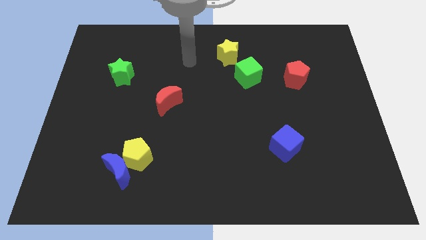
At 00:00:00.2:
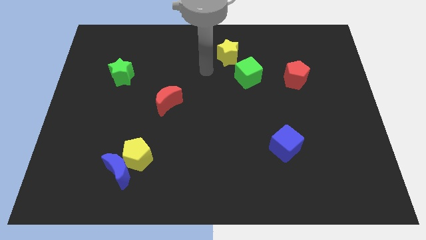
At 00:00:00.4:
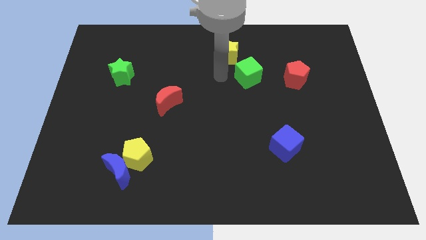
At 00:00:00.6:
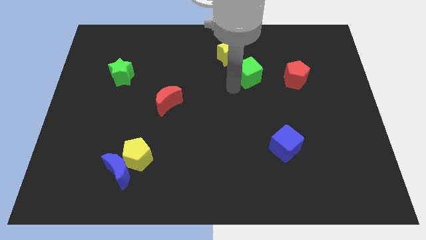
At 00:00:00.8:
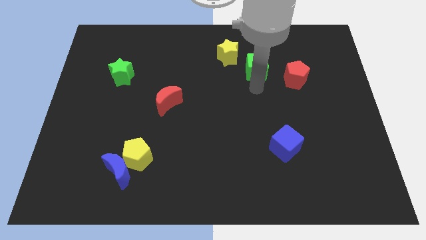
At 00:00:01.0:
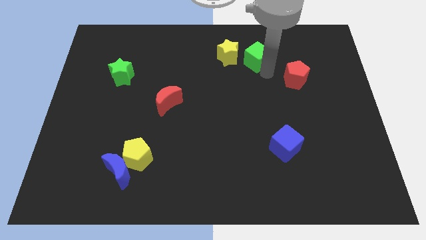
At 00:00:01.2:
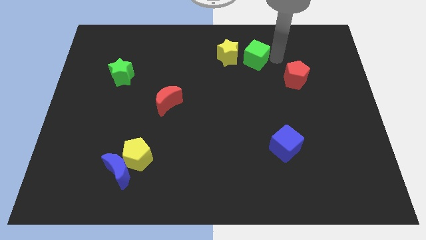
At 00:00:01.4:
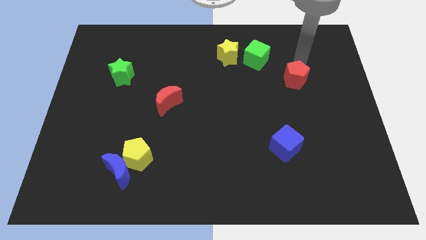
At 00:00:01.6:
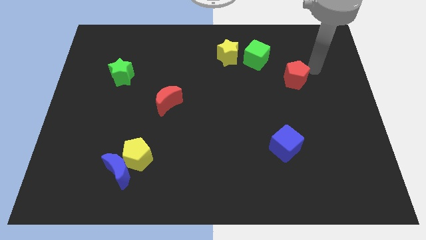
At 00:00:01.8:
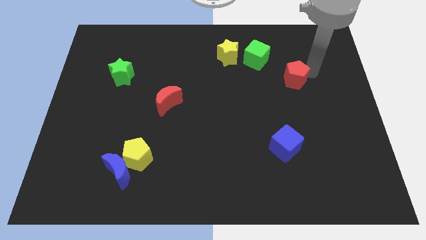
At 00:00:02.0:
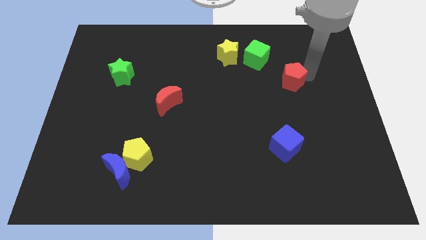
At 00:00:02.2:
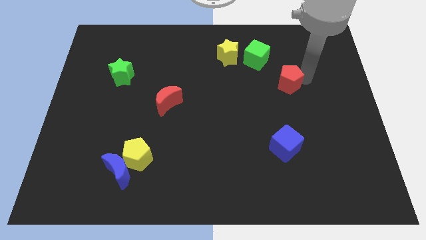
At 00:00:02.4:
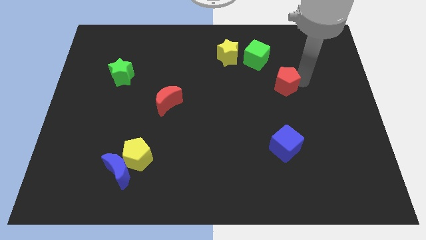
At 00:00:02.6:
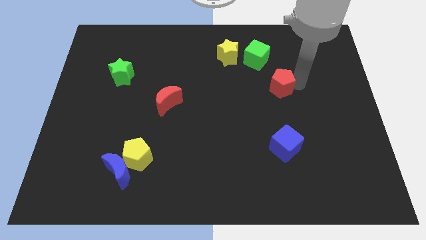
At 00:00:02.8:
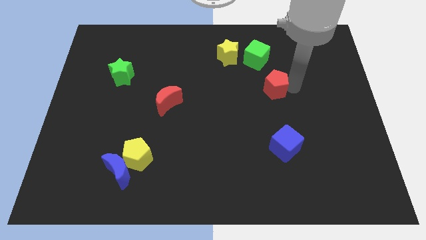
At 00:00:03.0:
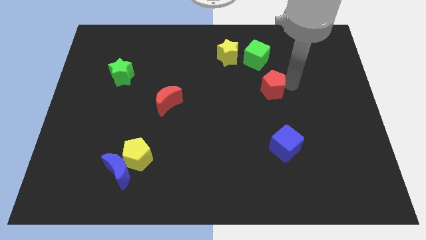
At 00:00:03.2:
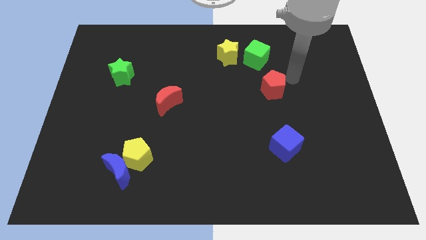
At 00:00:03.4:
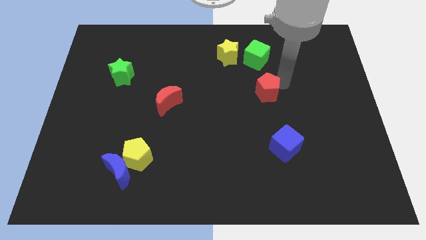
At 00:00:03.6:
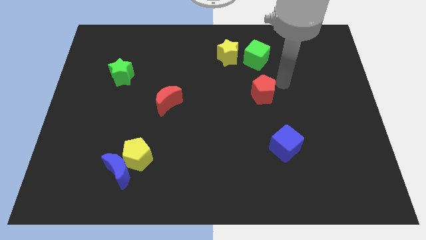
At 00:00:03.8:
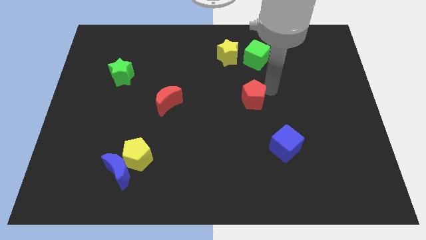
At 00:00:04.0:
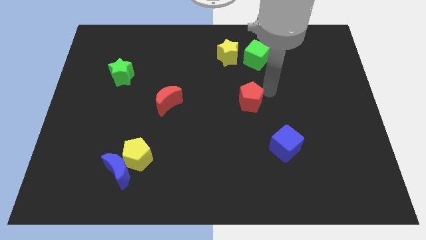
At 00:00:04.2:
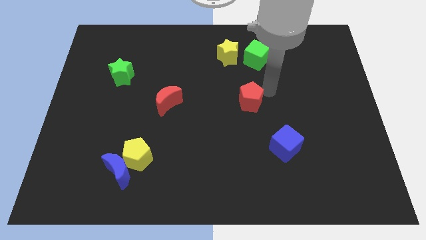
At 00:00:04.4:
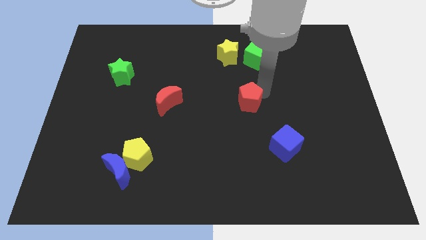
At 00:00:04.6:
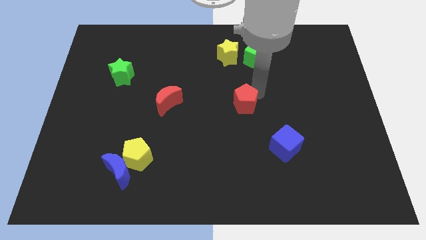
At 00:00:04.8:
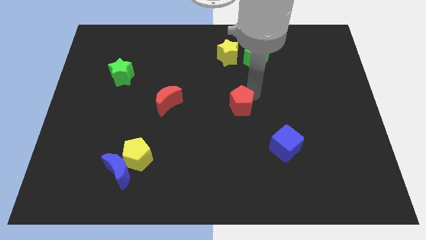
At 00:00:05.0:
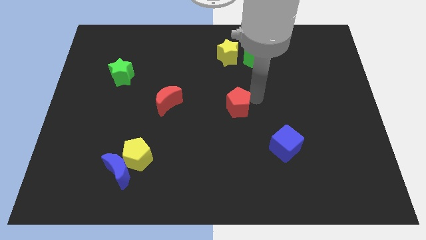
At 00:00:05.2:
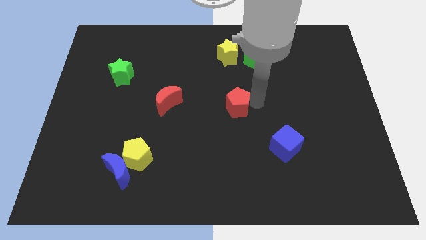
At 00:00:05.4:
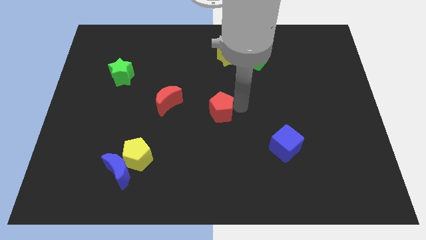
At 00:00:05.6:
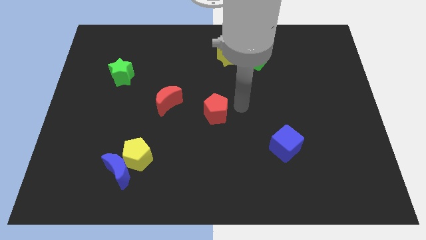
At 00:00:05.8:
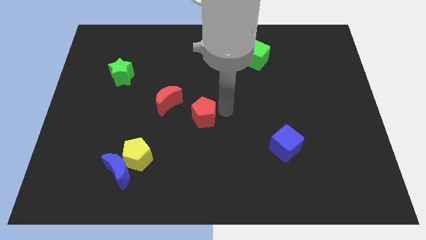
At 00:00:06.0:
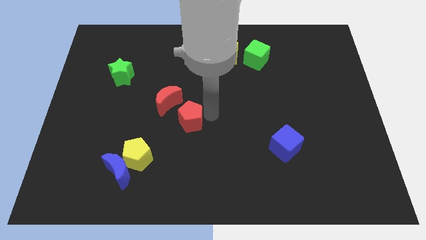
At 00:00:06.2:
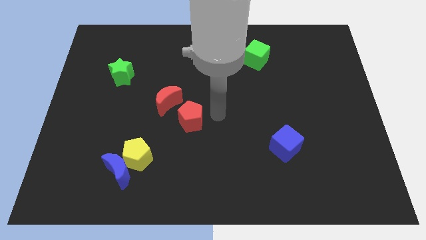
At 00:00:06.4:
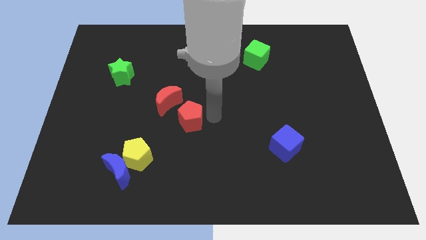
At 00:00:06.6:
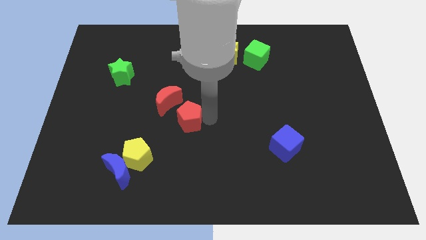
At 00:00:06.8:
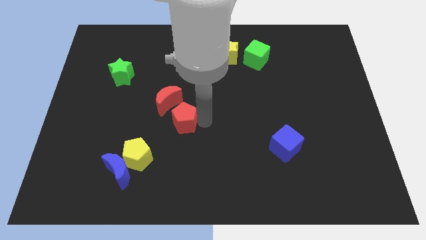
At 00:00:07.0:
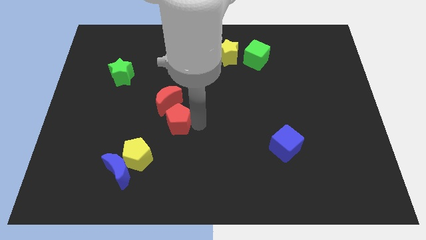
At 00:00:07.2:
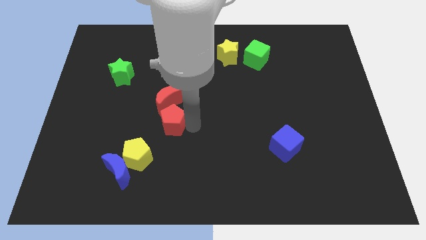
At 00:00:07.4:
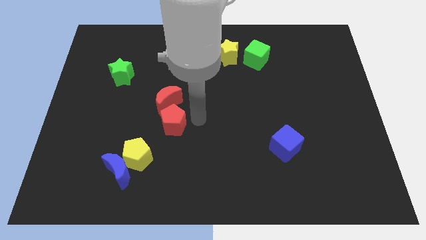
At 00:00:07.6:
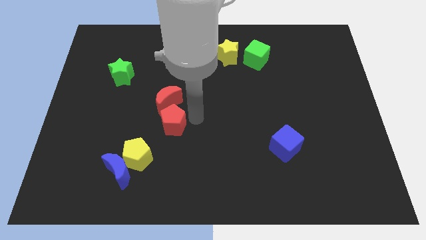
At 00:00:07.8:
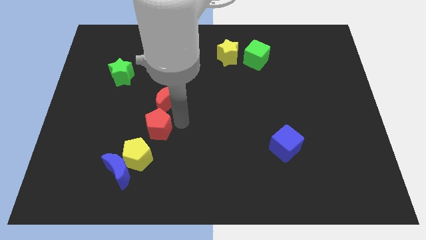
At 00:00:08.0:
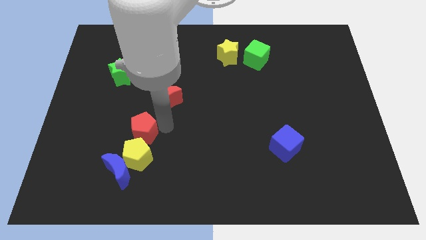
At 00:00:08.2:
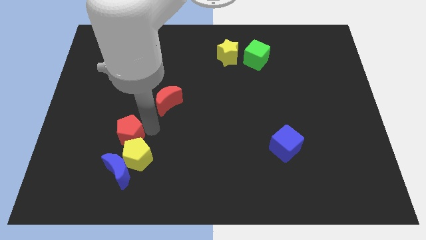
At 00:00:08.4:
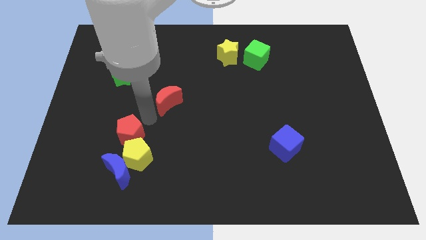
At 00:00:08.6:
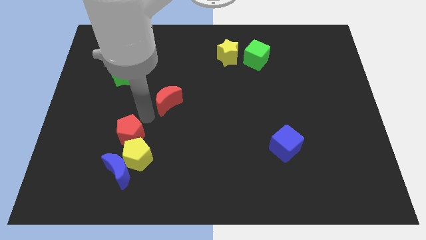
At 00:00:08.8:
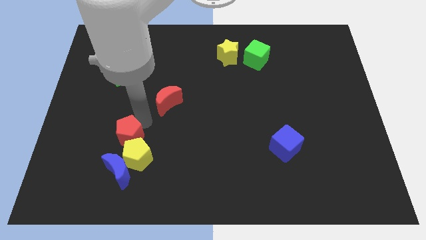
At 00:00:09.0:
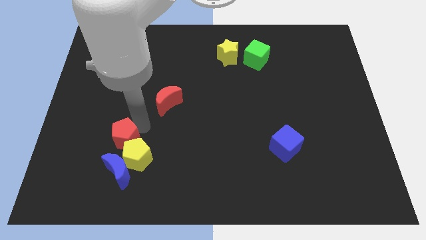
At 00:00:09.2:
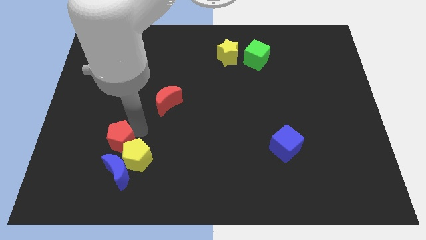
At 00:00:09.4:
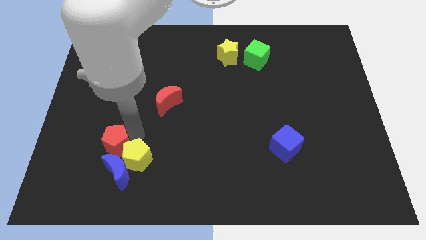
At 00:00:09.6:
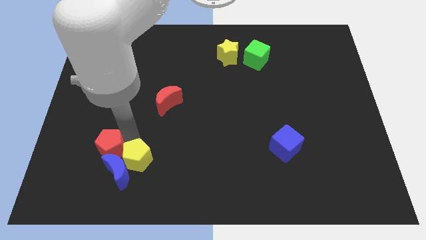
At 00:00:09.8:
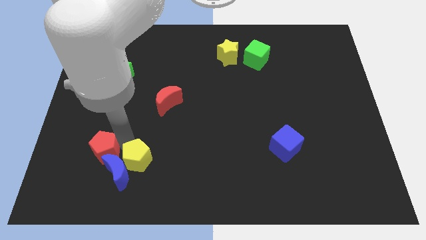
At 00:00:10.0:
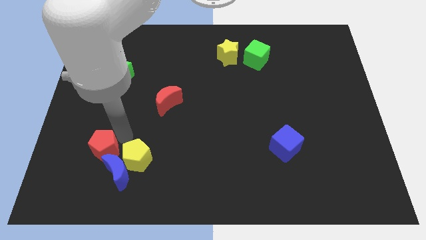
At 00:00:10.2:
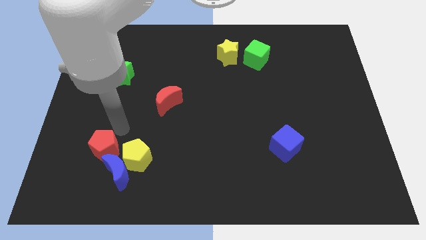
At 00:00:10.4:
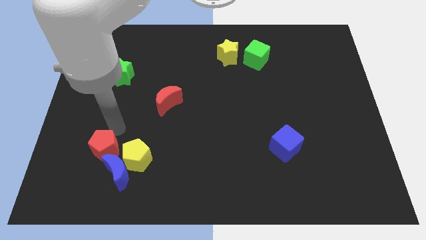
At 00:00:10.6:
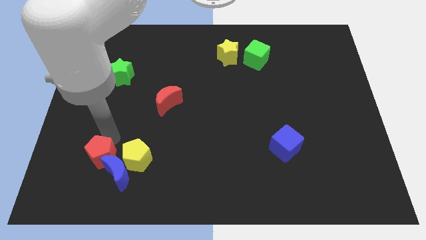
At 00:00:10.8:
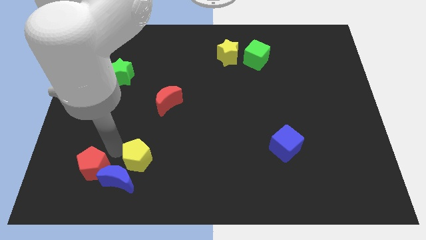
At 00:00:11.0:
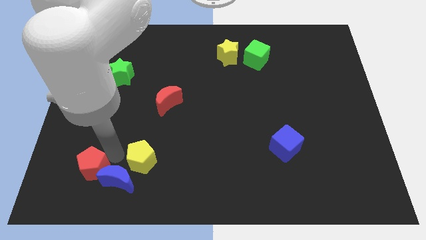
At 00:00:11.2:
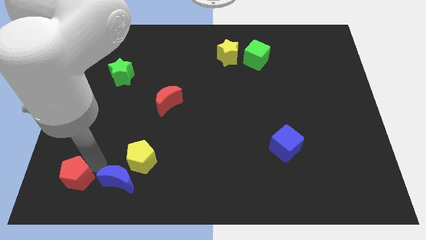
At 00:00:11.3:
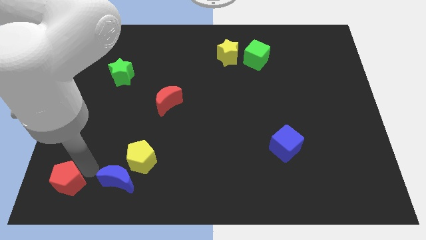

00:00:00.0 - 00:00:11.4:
slide the red pentagon to the bottom left
